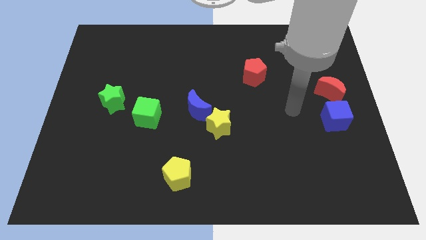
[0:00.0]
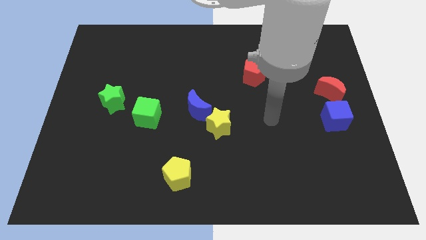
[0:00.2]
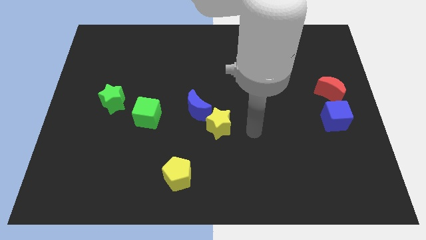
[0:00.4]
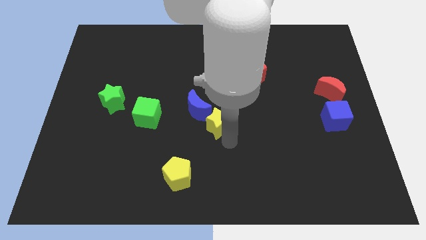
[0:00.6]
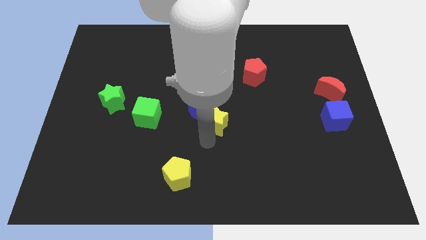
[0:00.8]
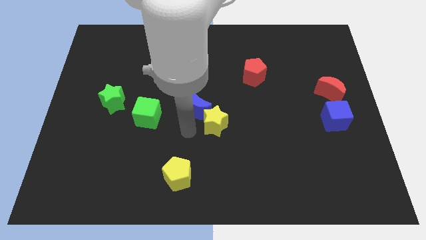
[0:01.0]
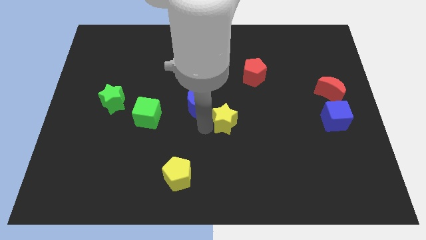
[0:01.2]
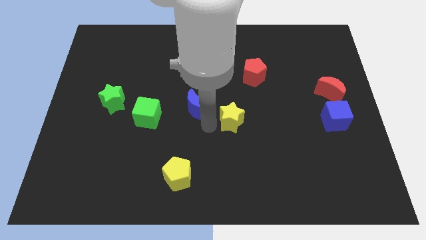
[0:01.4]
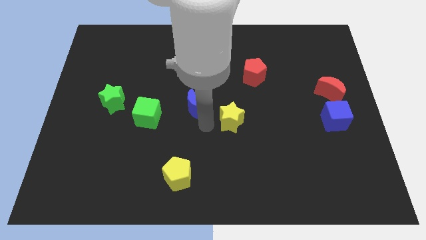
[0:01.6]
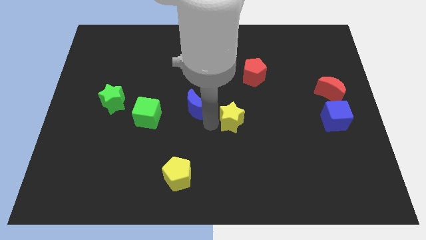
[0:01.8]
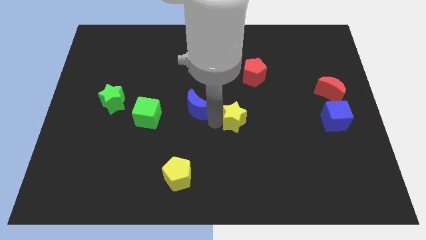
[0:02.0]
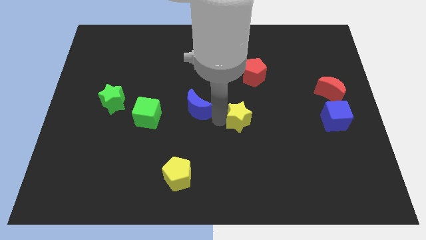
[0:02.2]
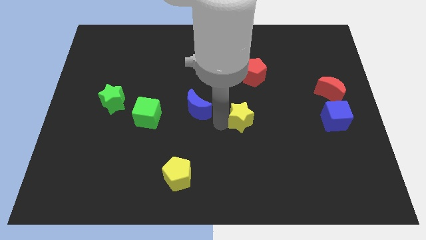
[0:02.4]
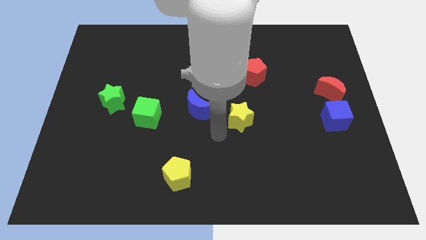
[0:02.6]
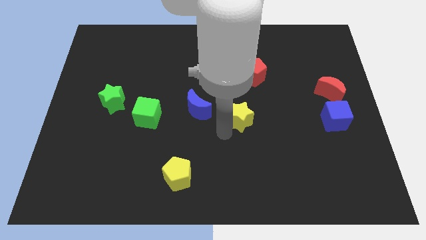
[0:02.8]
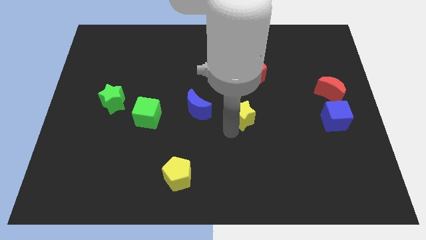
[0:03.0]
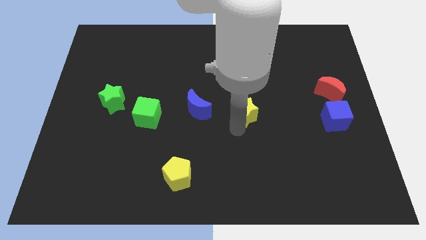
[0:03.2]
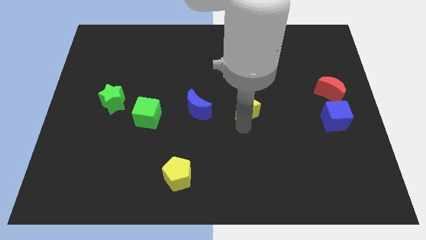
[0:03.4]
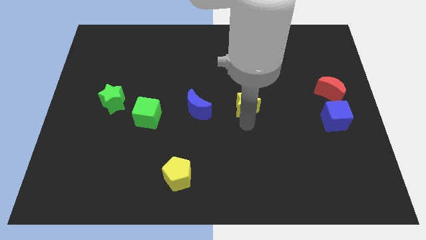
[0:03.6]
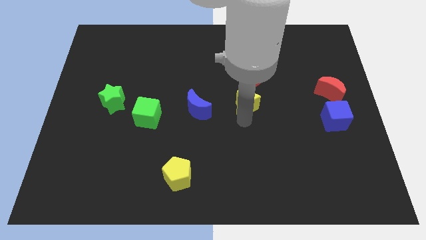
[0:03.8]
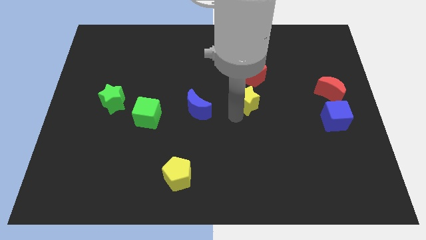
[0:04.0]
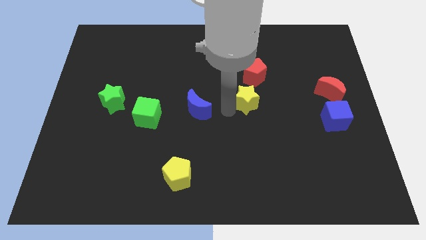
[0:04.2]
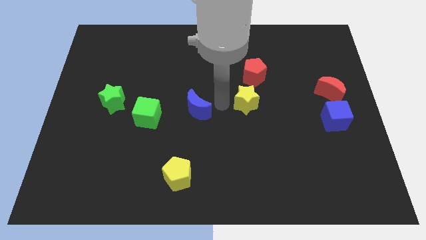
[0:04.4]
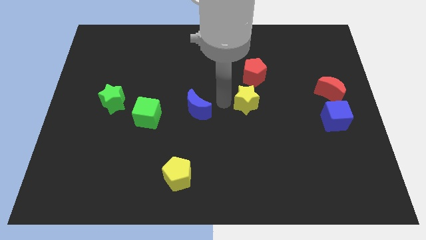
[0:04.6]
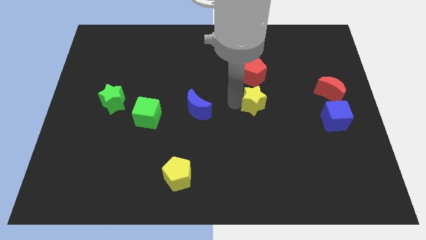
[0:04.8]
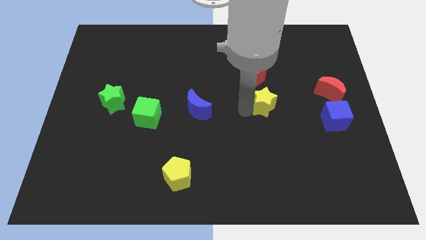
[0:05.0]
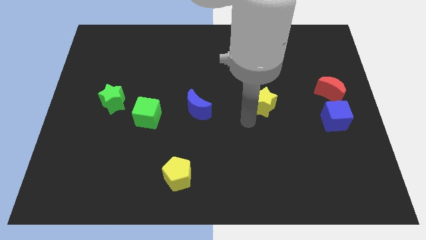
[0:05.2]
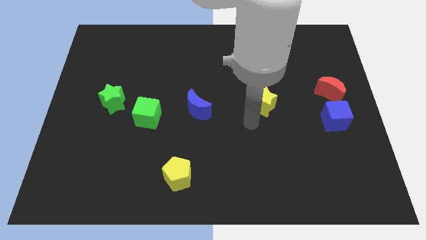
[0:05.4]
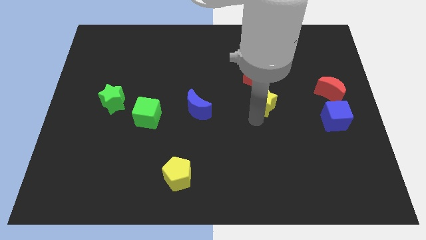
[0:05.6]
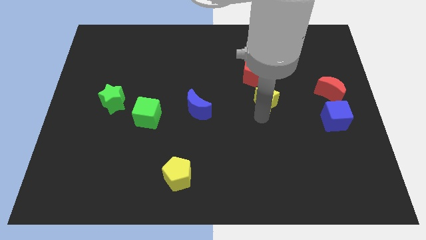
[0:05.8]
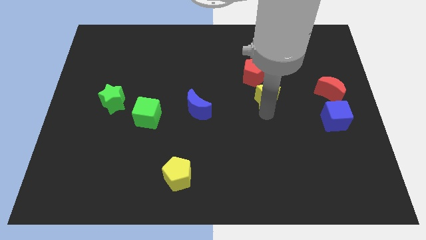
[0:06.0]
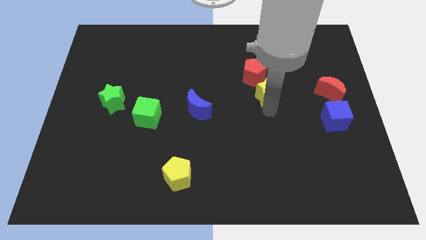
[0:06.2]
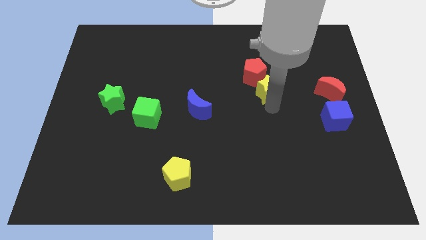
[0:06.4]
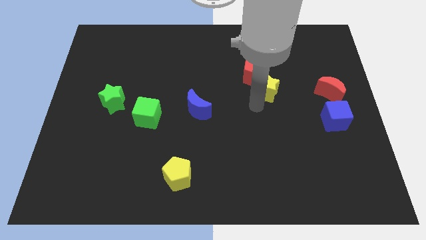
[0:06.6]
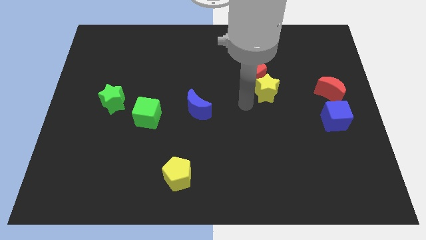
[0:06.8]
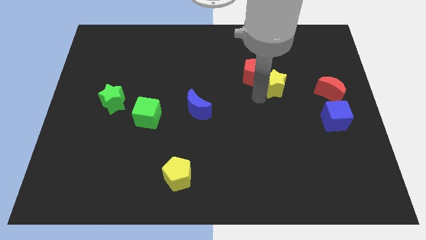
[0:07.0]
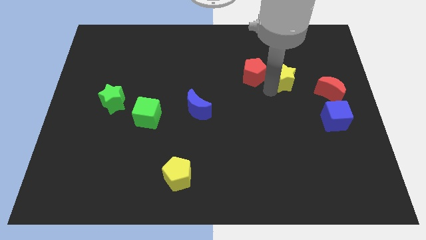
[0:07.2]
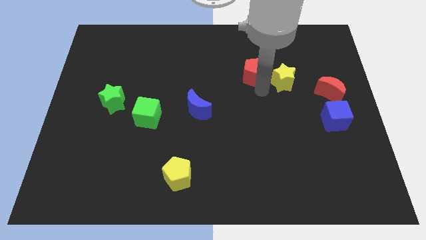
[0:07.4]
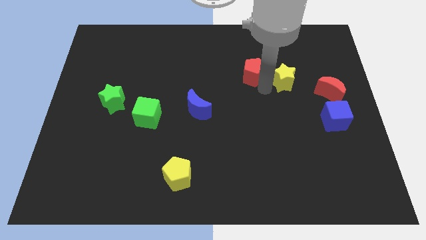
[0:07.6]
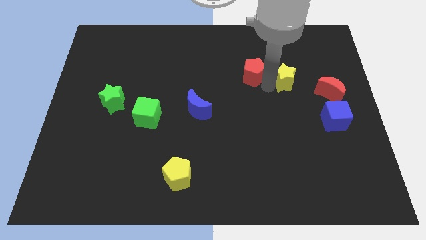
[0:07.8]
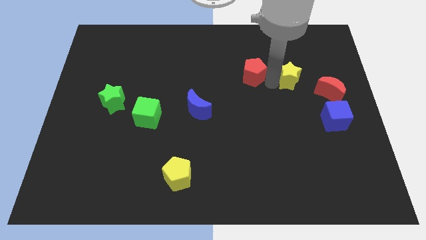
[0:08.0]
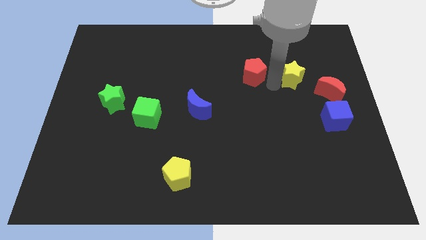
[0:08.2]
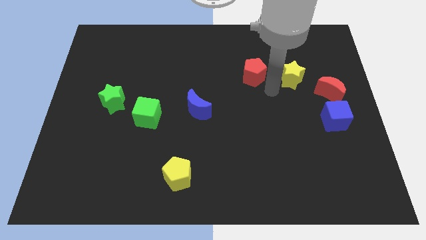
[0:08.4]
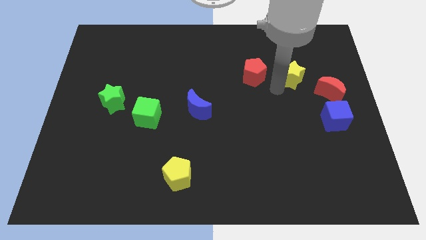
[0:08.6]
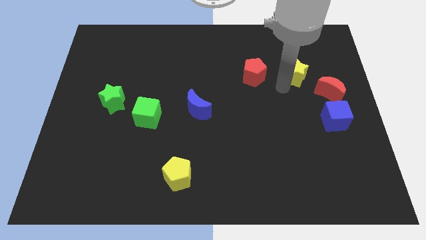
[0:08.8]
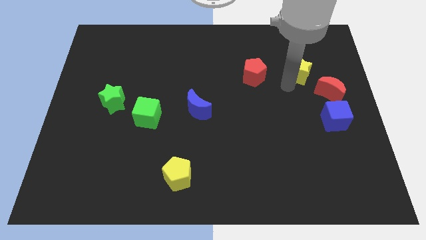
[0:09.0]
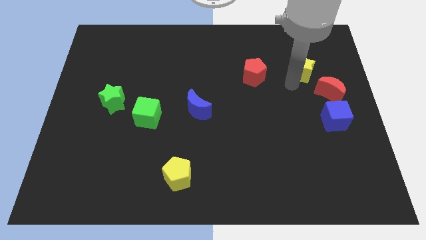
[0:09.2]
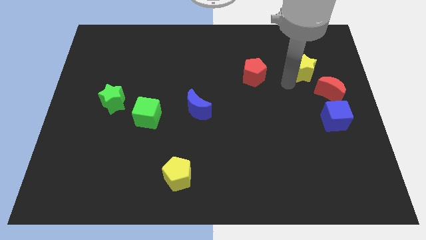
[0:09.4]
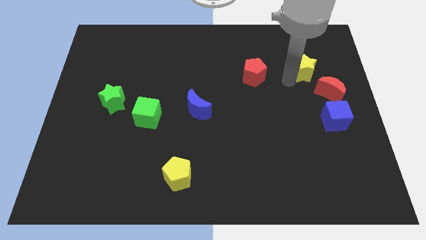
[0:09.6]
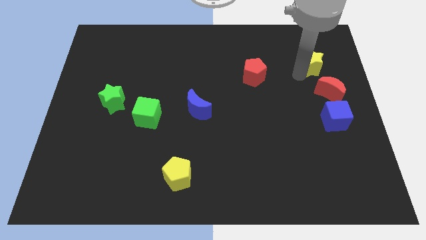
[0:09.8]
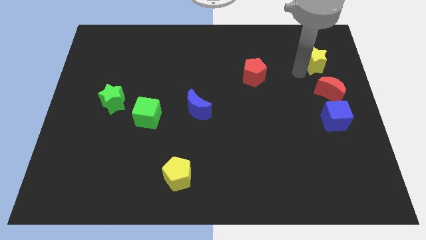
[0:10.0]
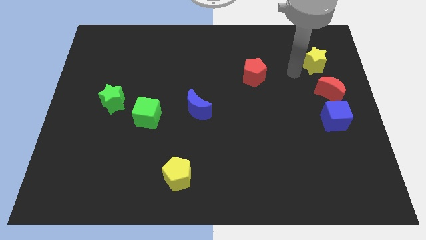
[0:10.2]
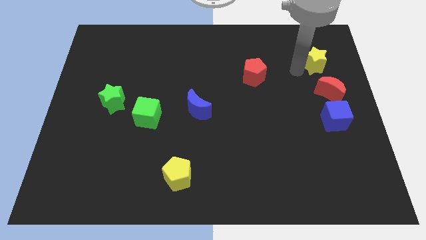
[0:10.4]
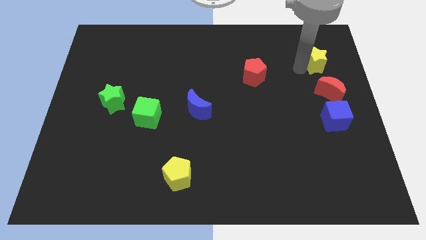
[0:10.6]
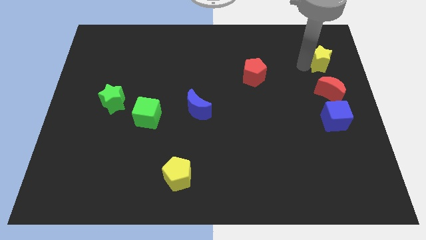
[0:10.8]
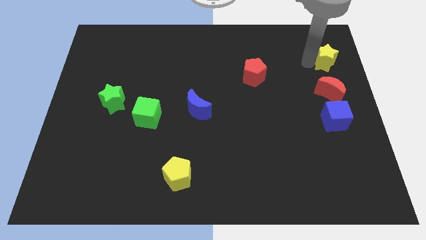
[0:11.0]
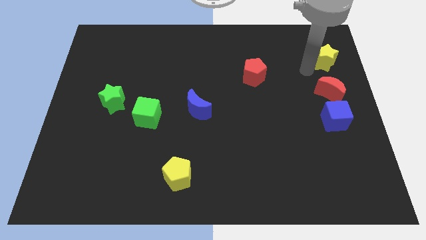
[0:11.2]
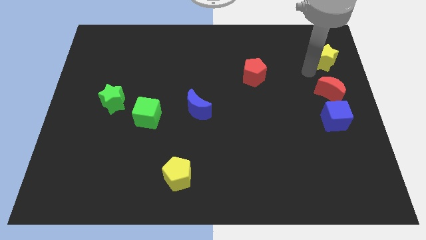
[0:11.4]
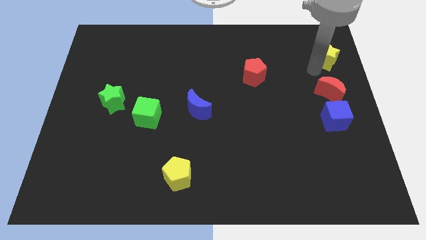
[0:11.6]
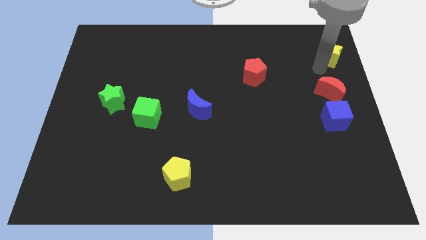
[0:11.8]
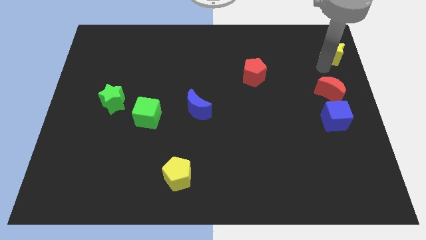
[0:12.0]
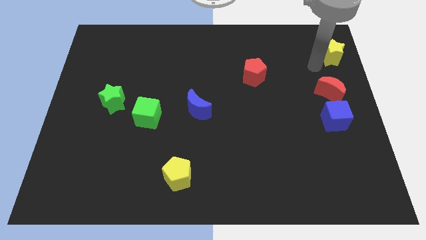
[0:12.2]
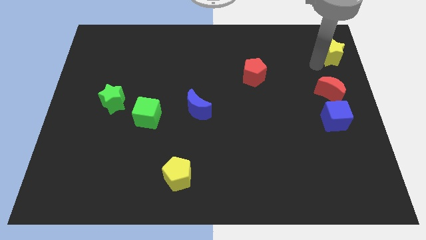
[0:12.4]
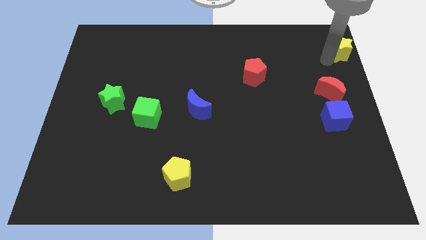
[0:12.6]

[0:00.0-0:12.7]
move the yellow star to the top right
